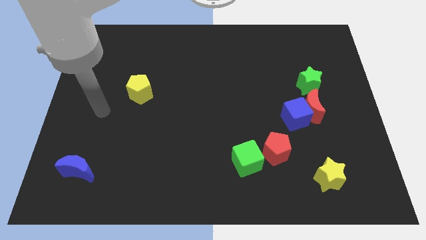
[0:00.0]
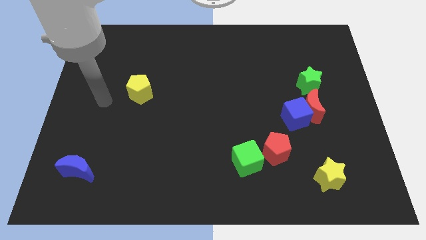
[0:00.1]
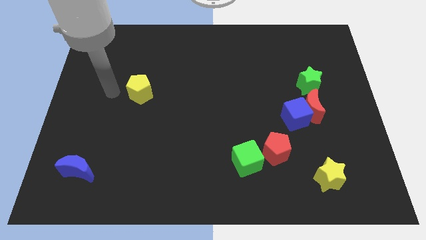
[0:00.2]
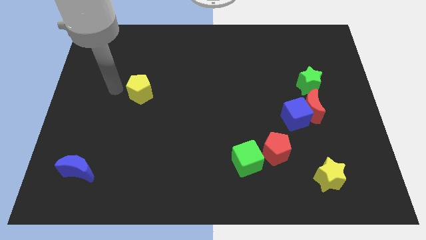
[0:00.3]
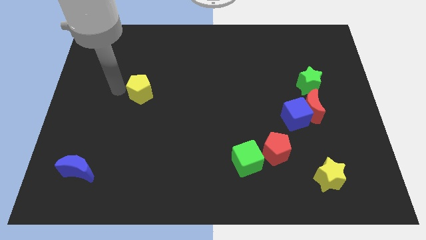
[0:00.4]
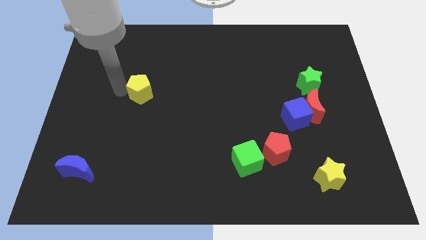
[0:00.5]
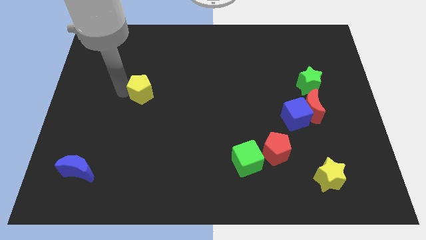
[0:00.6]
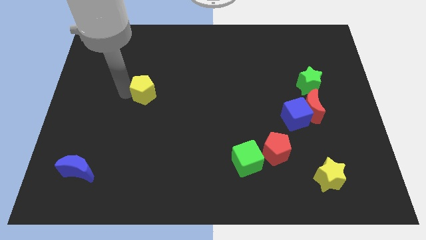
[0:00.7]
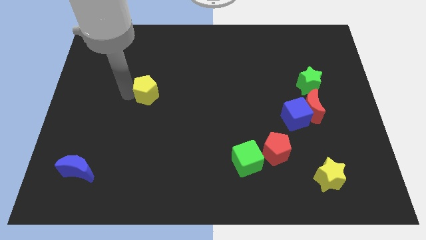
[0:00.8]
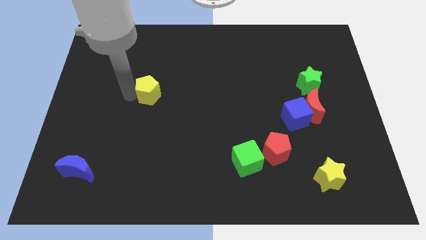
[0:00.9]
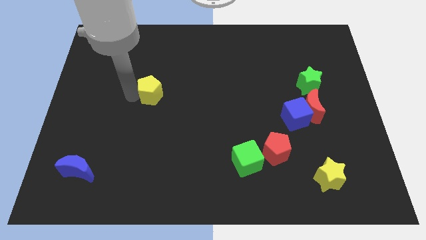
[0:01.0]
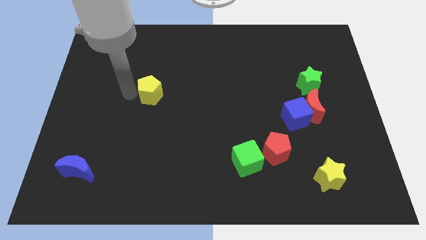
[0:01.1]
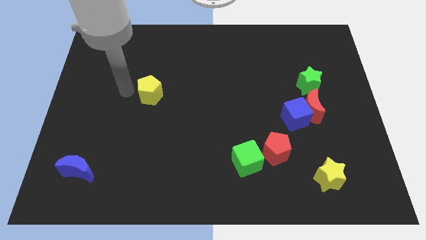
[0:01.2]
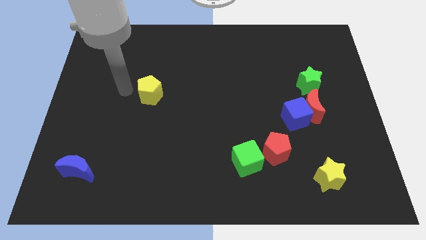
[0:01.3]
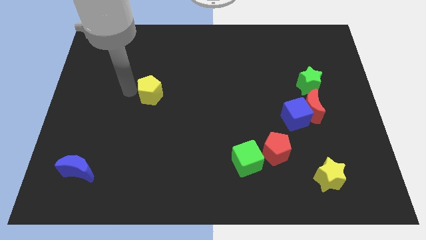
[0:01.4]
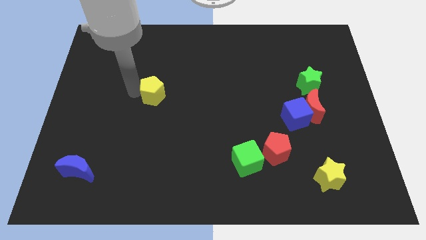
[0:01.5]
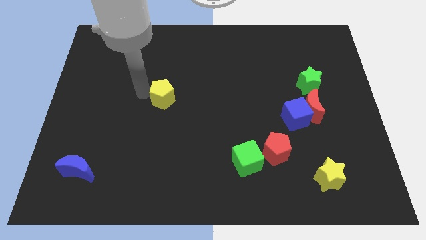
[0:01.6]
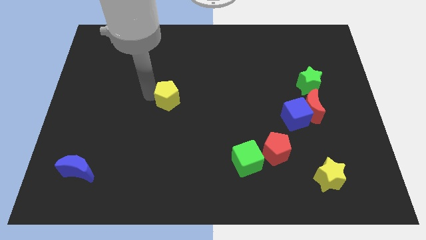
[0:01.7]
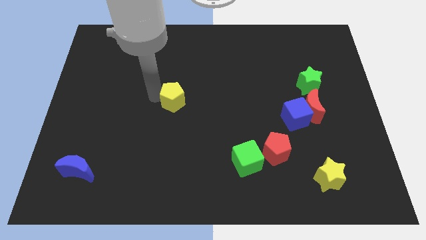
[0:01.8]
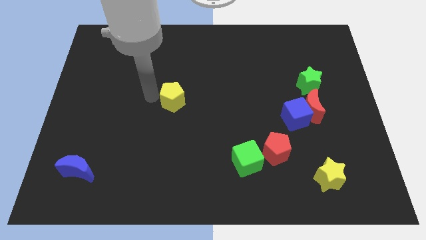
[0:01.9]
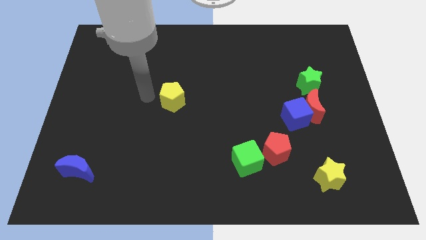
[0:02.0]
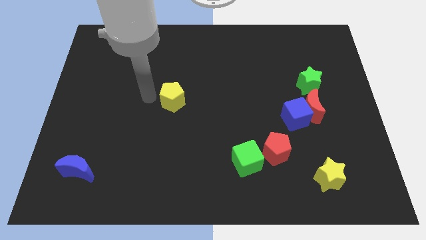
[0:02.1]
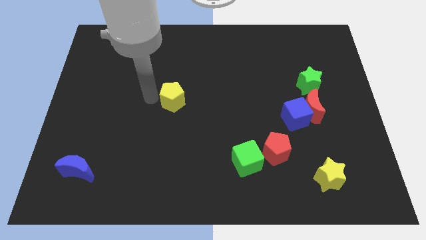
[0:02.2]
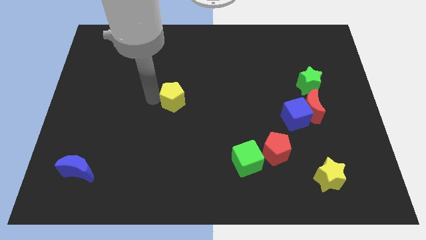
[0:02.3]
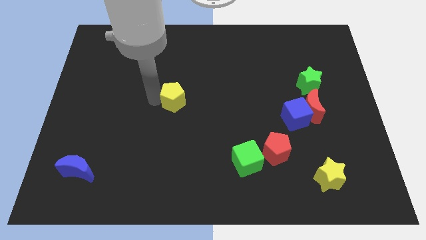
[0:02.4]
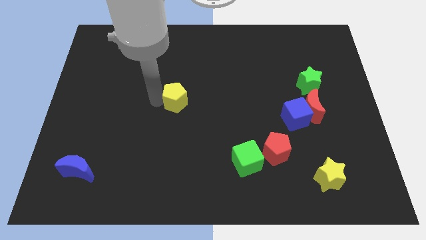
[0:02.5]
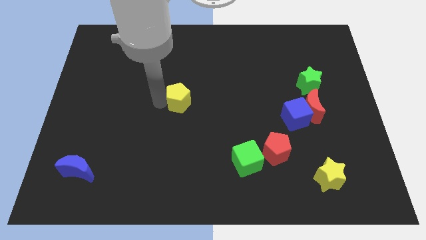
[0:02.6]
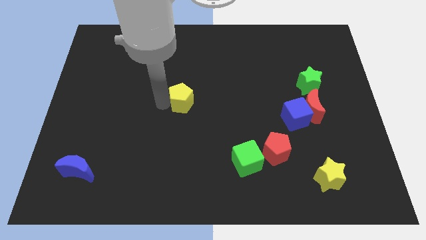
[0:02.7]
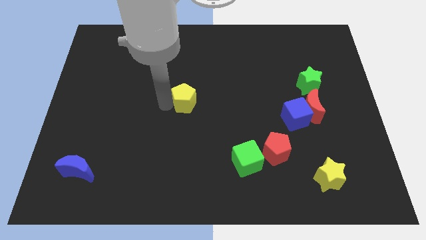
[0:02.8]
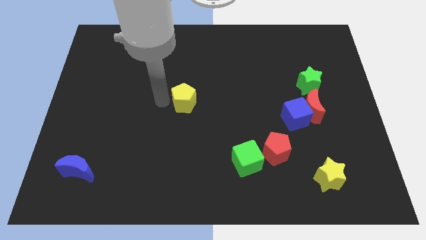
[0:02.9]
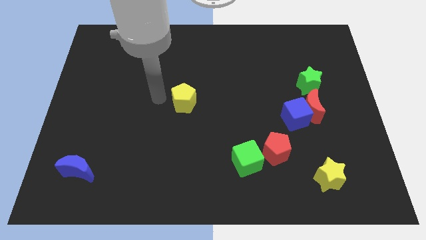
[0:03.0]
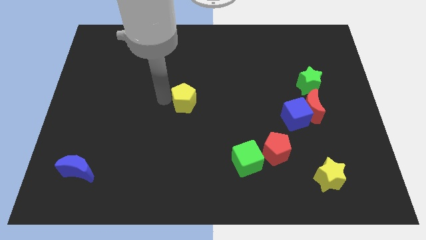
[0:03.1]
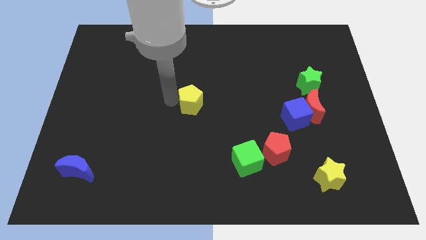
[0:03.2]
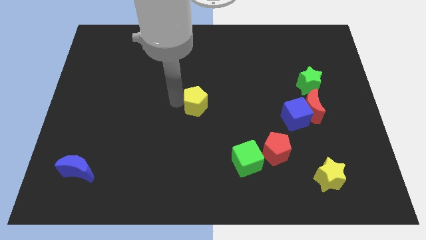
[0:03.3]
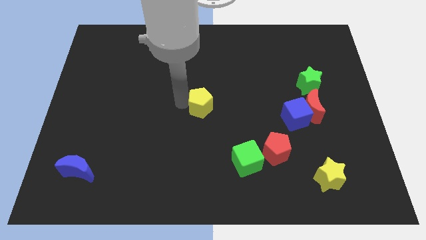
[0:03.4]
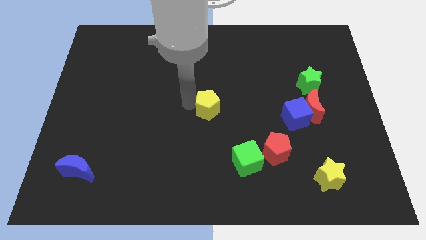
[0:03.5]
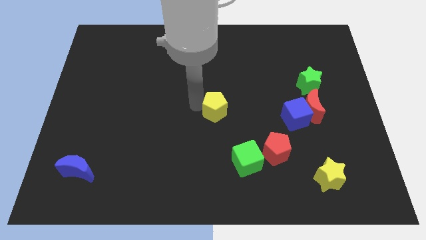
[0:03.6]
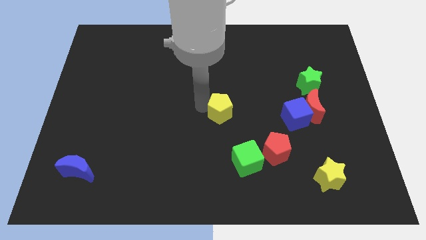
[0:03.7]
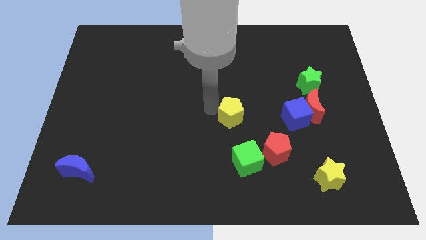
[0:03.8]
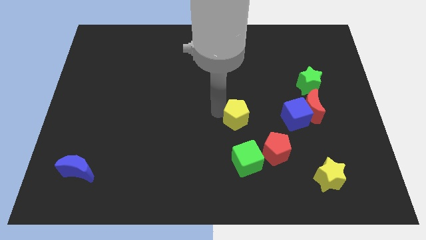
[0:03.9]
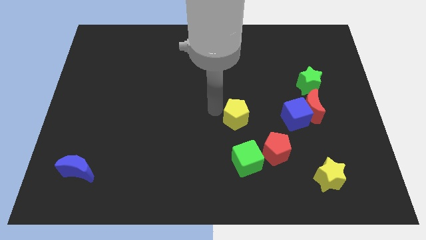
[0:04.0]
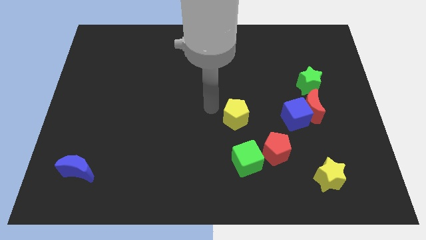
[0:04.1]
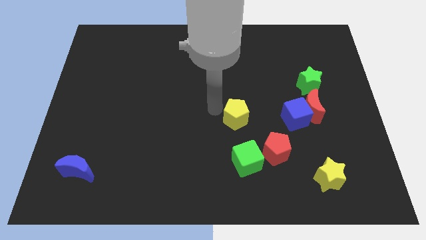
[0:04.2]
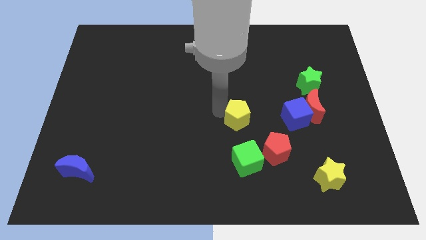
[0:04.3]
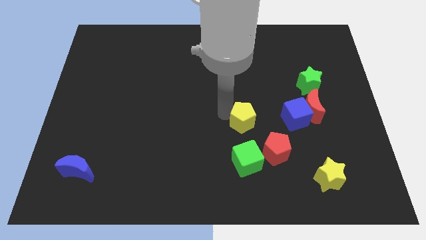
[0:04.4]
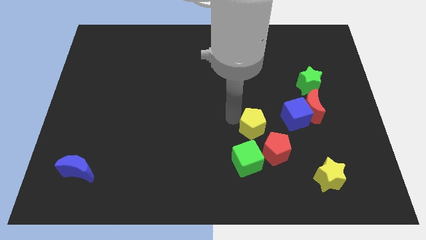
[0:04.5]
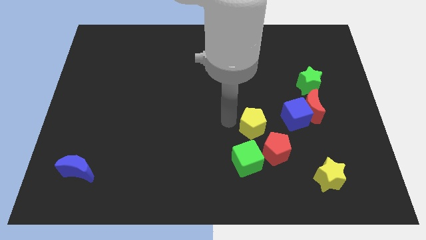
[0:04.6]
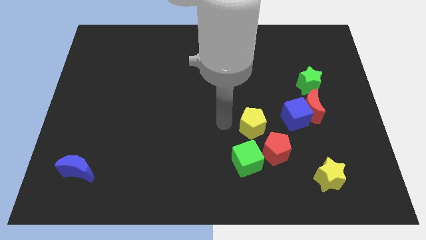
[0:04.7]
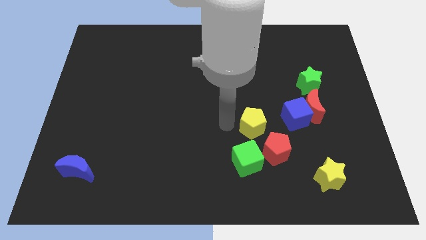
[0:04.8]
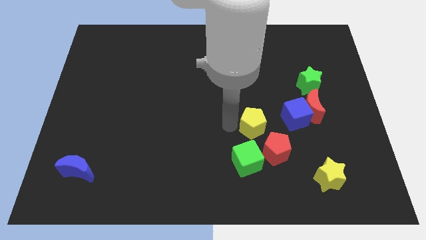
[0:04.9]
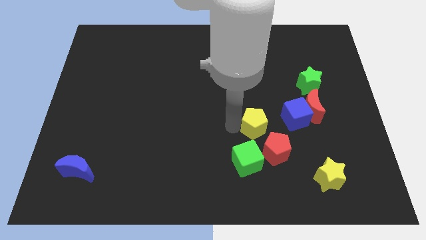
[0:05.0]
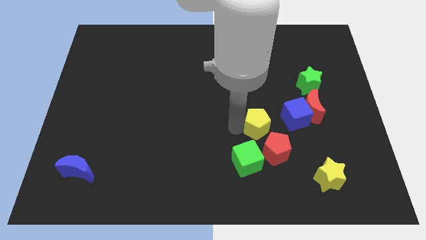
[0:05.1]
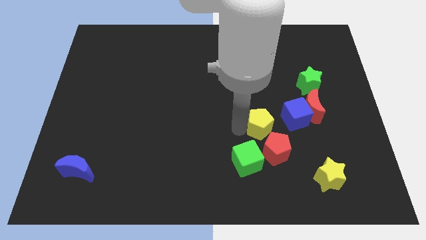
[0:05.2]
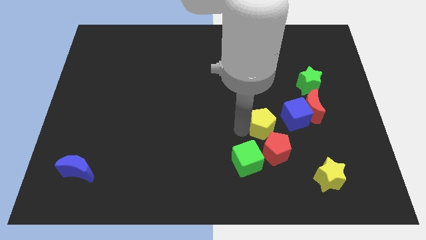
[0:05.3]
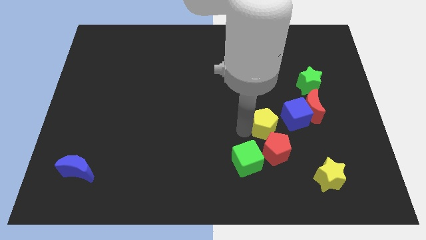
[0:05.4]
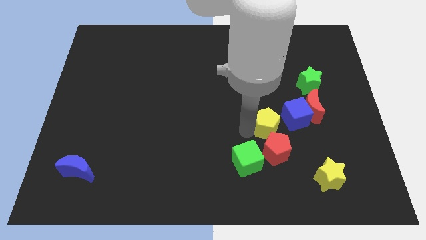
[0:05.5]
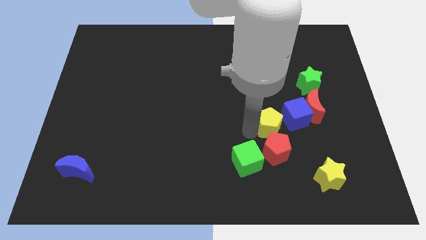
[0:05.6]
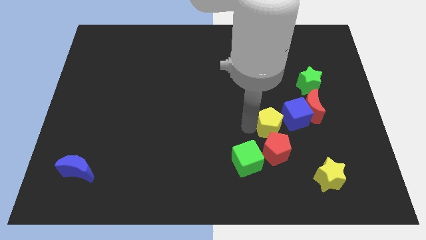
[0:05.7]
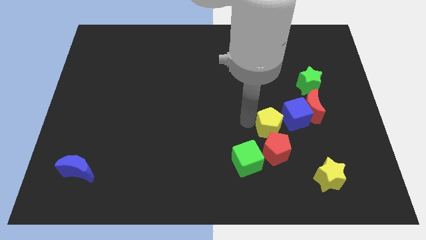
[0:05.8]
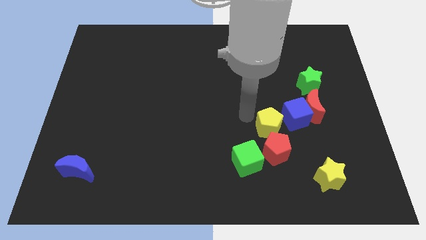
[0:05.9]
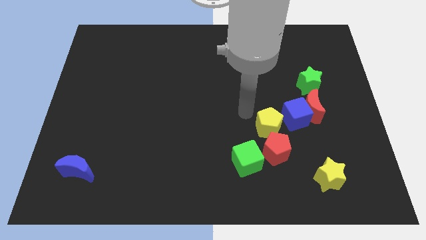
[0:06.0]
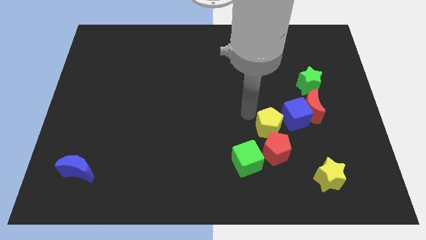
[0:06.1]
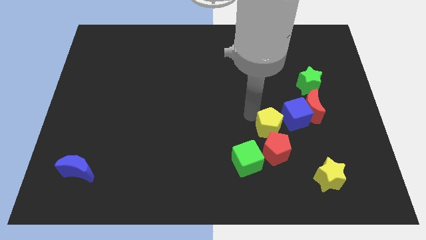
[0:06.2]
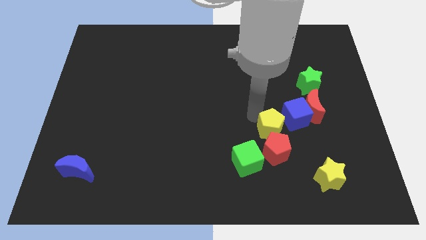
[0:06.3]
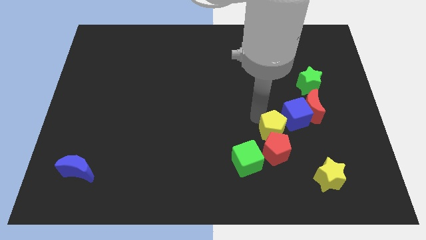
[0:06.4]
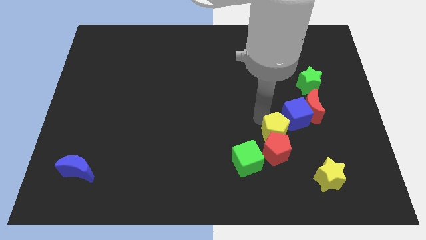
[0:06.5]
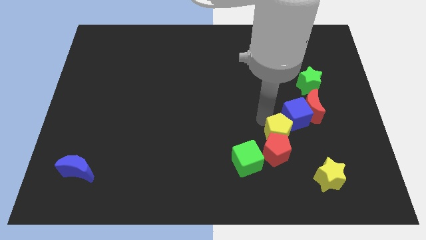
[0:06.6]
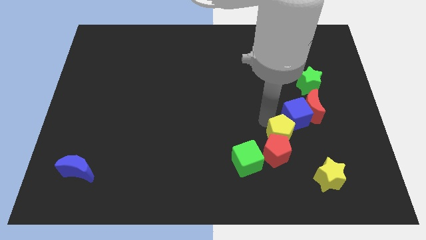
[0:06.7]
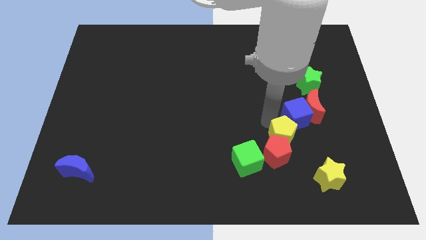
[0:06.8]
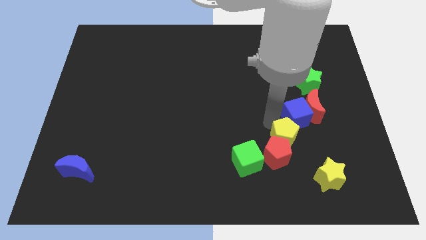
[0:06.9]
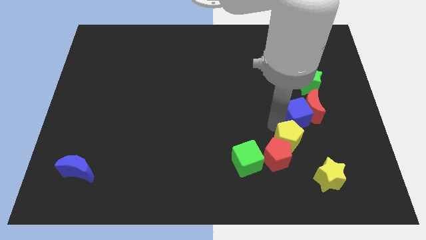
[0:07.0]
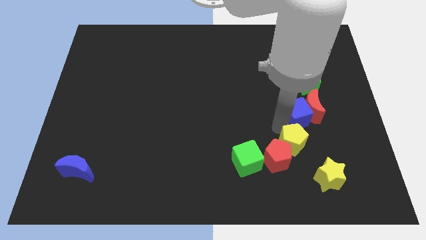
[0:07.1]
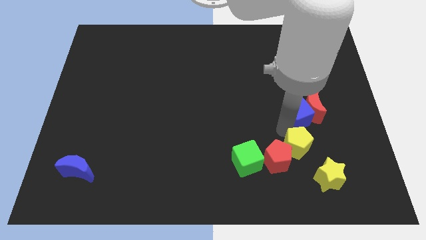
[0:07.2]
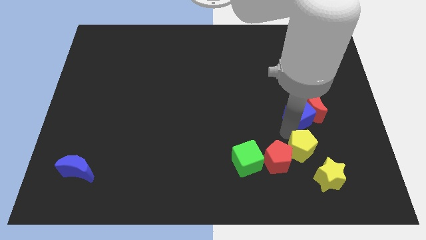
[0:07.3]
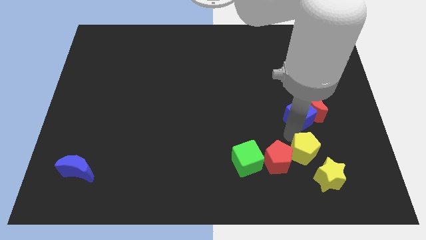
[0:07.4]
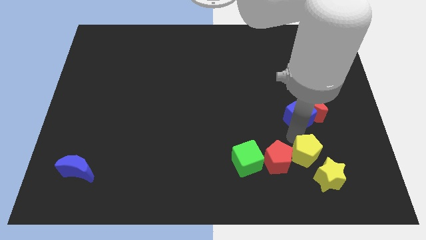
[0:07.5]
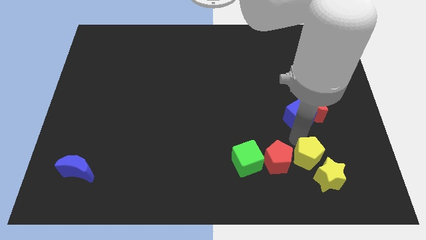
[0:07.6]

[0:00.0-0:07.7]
move the yellow pentagon close to the yellow star

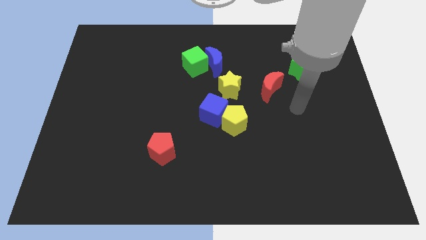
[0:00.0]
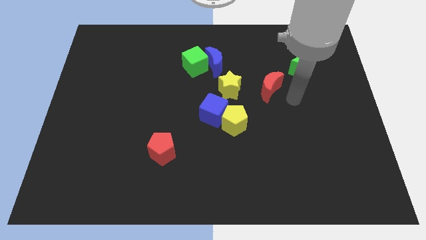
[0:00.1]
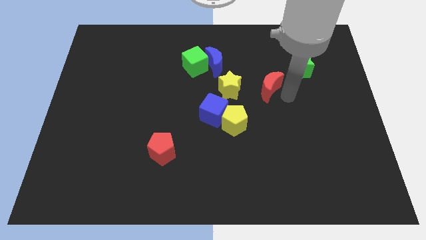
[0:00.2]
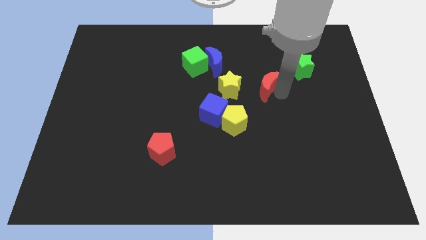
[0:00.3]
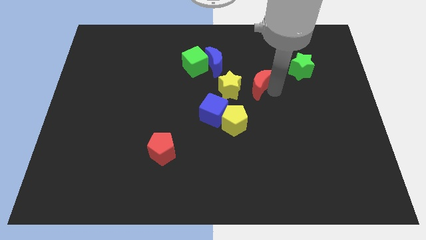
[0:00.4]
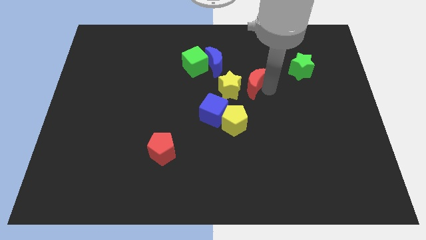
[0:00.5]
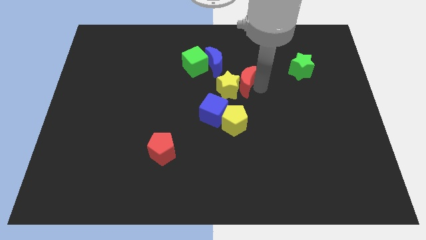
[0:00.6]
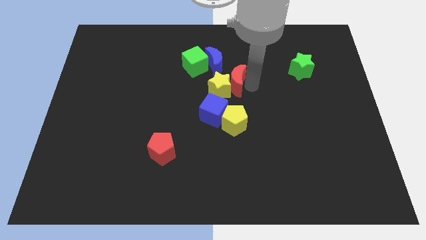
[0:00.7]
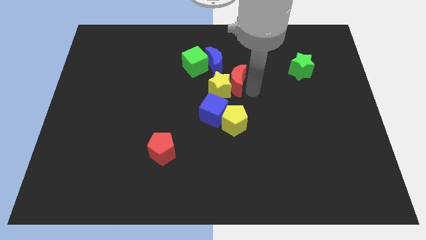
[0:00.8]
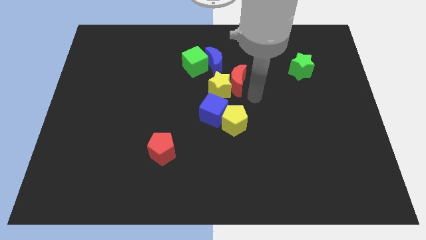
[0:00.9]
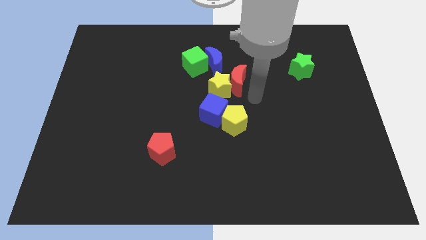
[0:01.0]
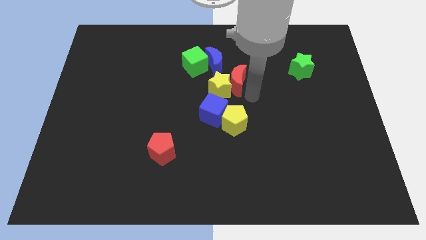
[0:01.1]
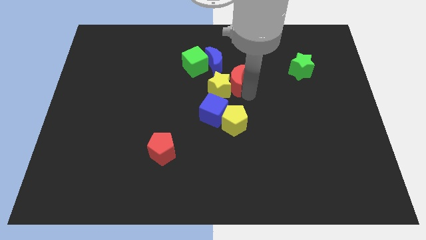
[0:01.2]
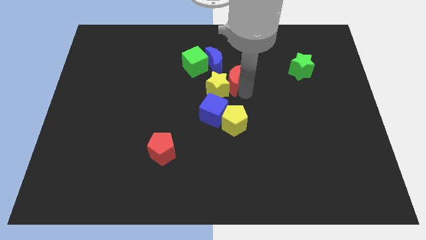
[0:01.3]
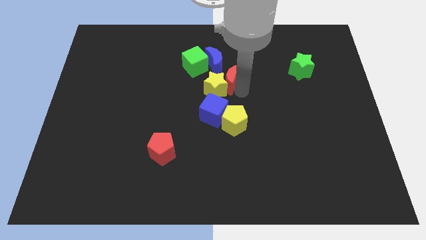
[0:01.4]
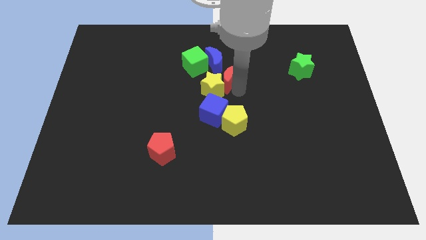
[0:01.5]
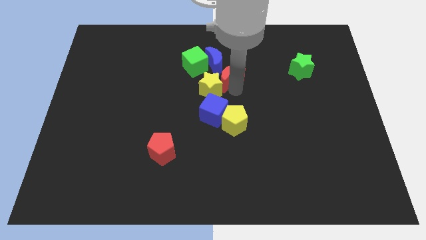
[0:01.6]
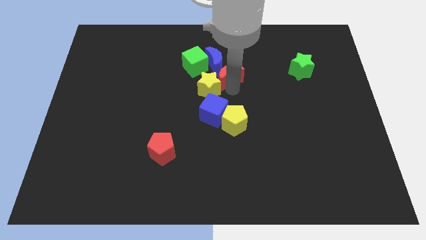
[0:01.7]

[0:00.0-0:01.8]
put the red moon to the blue moon
